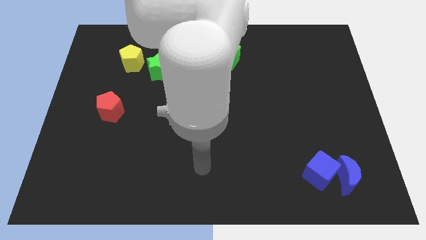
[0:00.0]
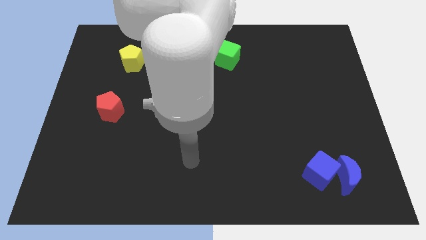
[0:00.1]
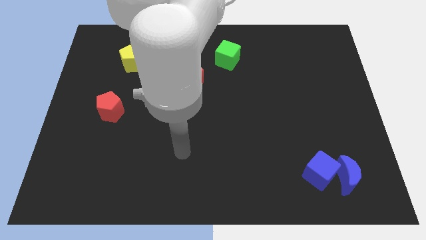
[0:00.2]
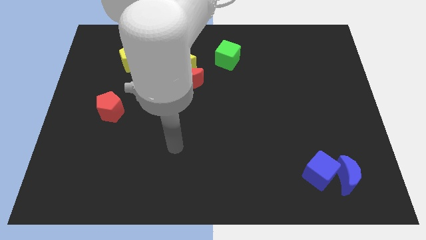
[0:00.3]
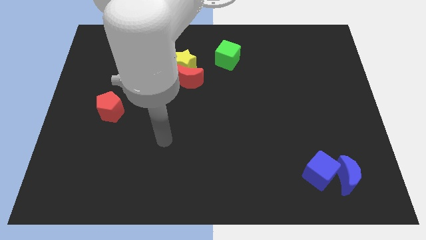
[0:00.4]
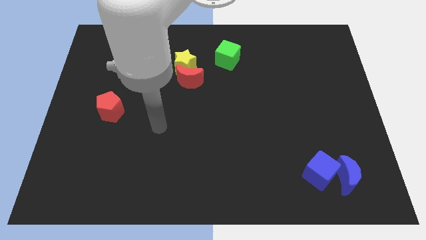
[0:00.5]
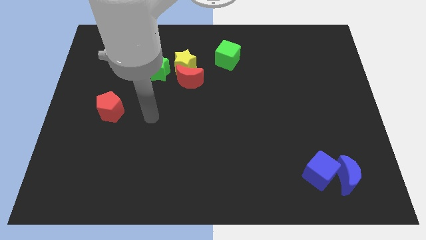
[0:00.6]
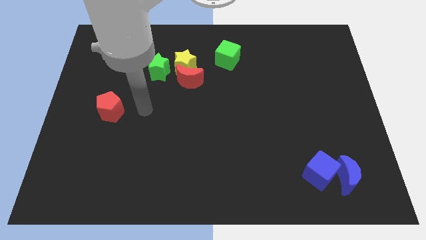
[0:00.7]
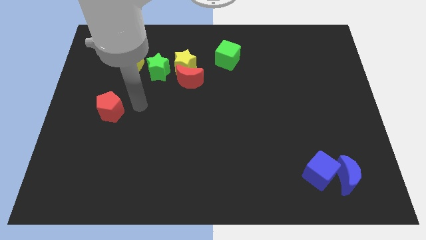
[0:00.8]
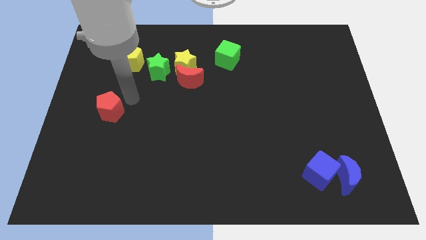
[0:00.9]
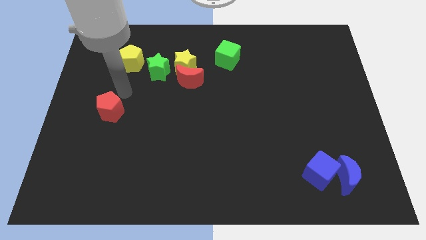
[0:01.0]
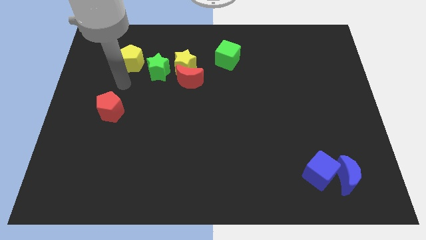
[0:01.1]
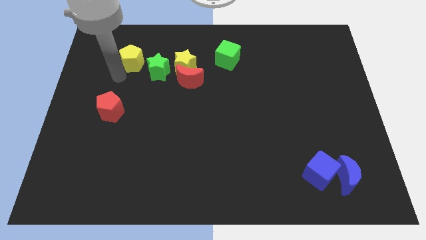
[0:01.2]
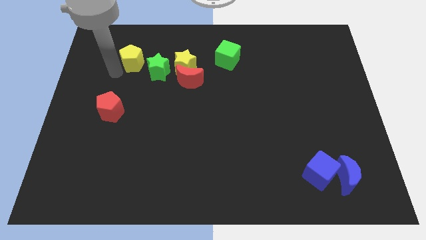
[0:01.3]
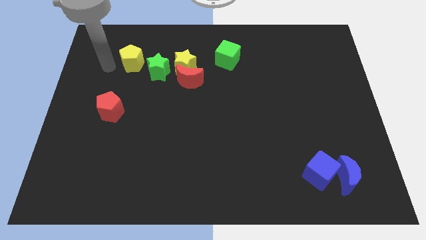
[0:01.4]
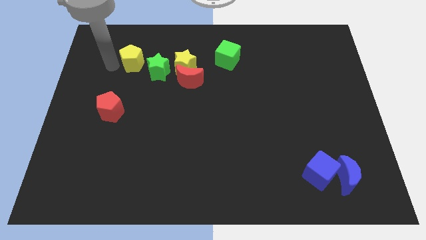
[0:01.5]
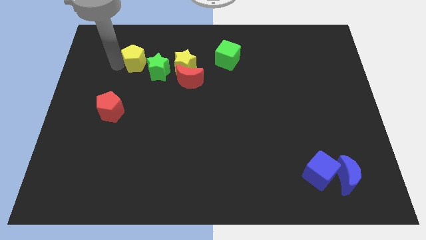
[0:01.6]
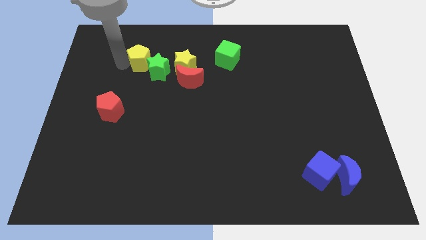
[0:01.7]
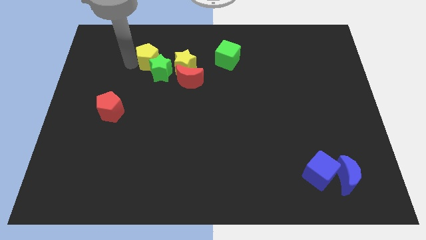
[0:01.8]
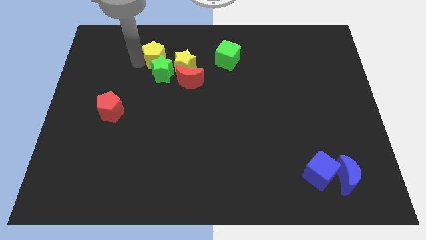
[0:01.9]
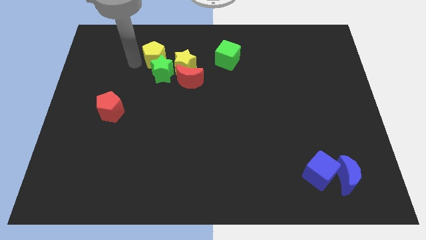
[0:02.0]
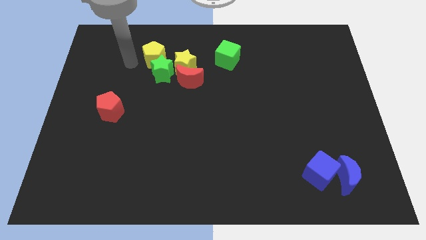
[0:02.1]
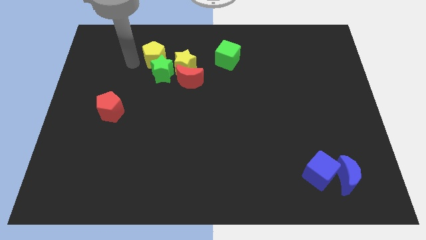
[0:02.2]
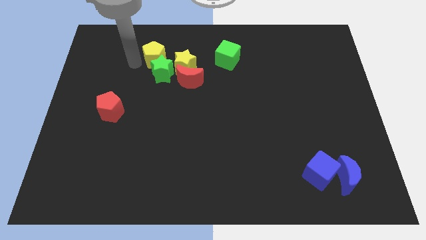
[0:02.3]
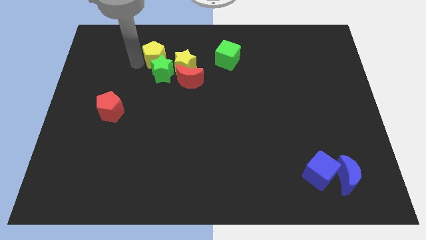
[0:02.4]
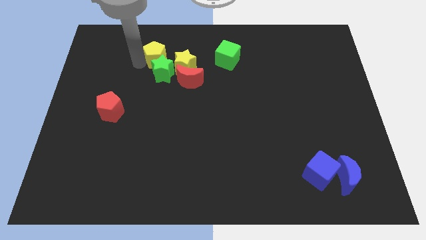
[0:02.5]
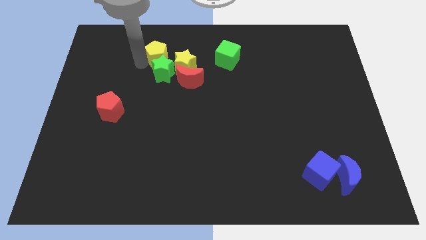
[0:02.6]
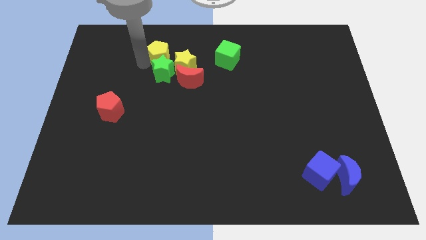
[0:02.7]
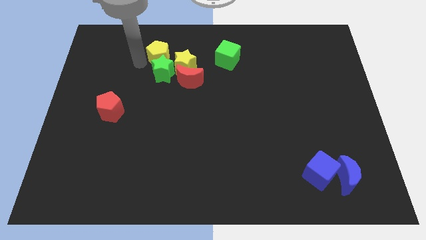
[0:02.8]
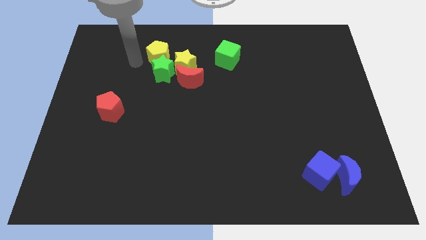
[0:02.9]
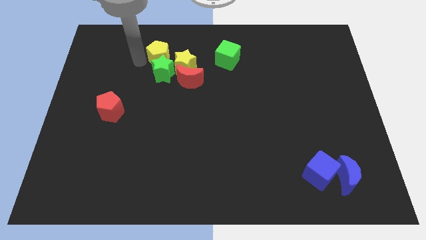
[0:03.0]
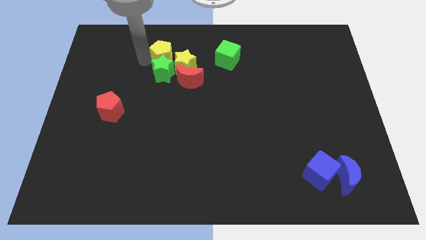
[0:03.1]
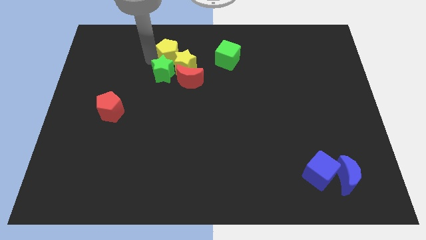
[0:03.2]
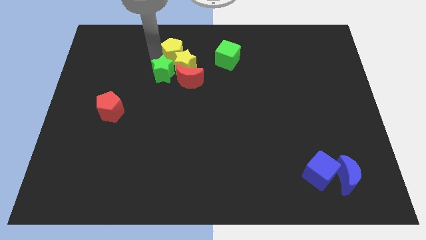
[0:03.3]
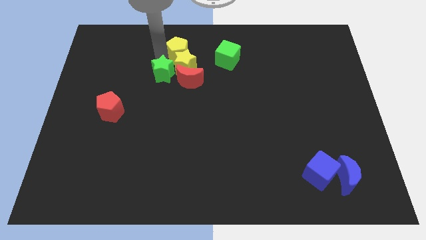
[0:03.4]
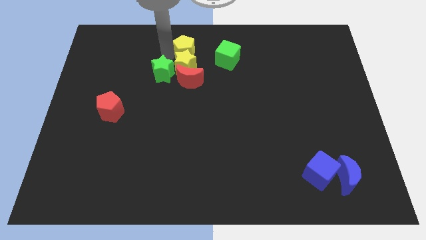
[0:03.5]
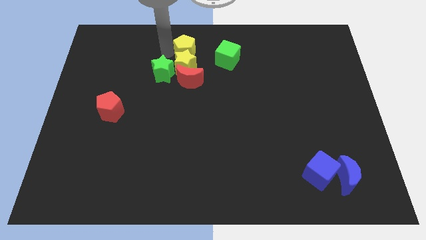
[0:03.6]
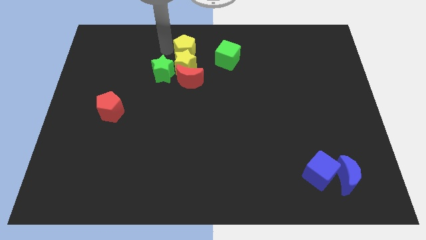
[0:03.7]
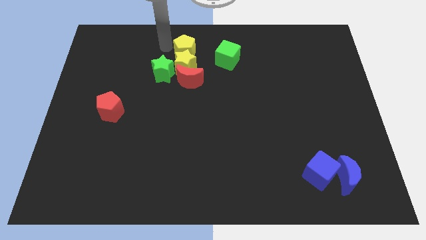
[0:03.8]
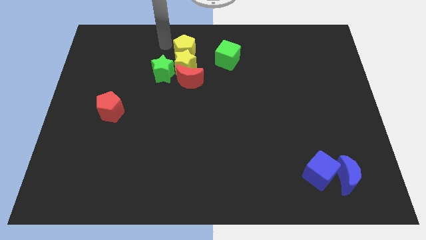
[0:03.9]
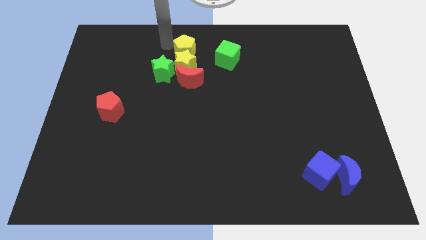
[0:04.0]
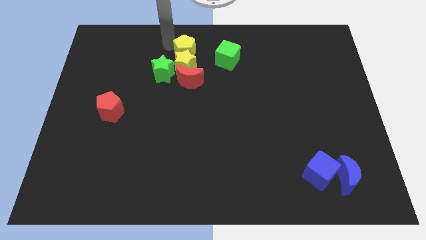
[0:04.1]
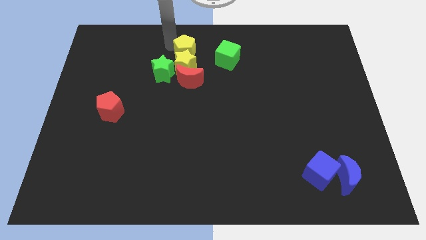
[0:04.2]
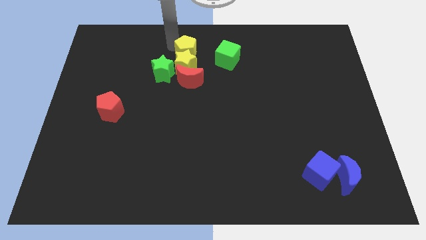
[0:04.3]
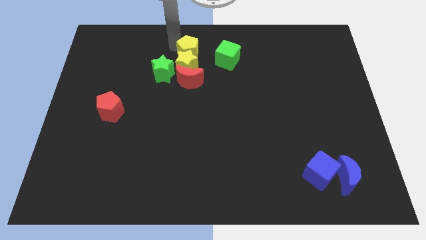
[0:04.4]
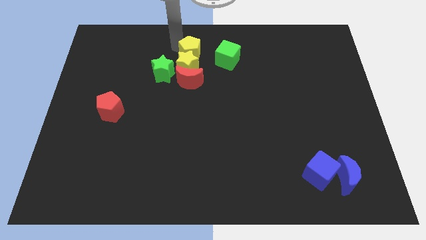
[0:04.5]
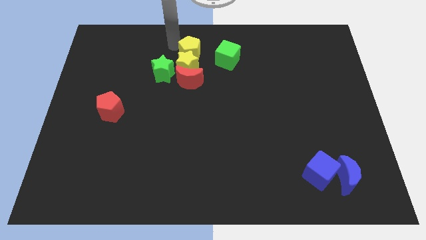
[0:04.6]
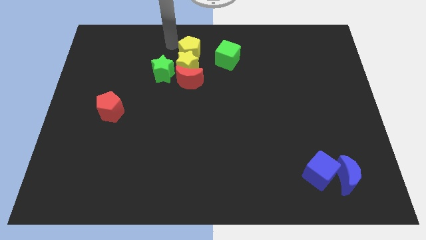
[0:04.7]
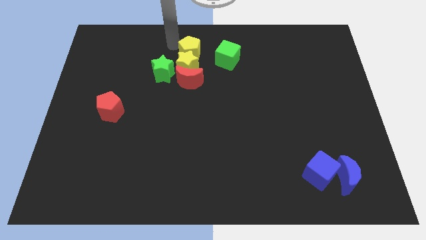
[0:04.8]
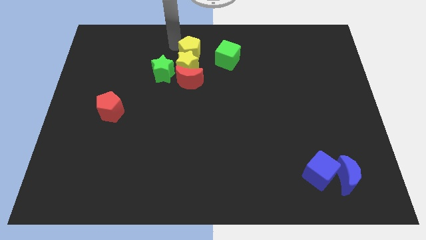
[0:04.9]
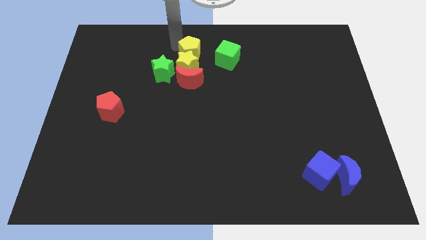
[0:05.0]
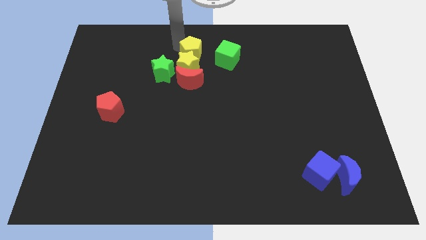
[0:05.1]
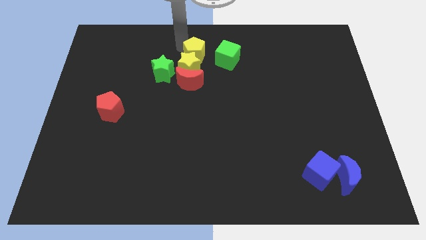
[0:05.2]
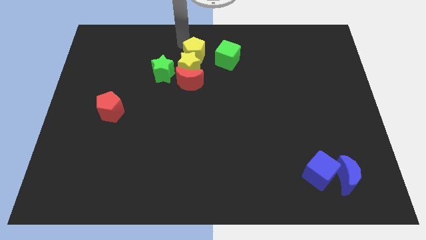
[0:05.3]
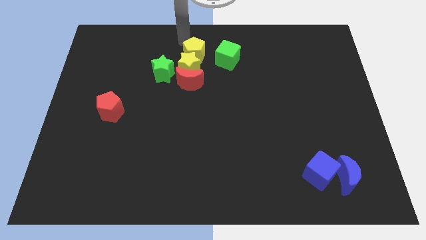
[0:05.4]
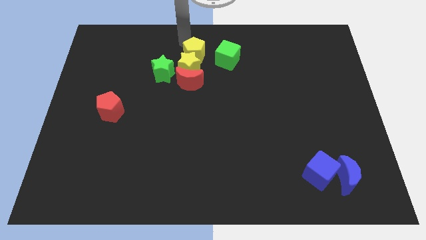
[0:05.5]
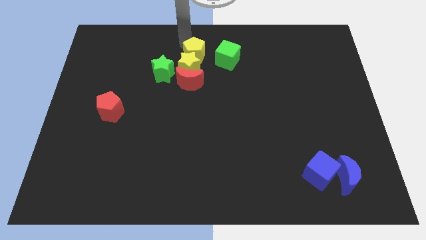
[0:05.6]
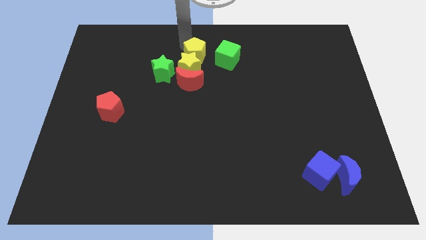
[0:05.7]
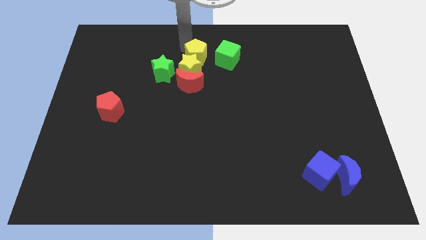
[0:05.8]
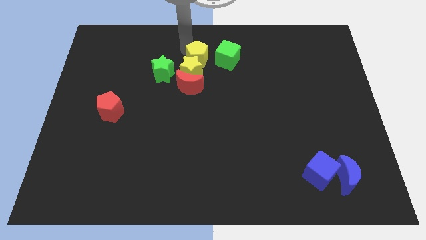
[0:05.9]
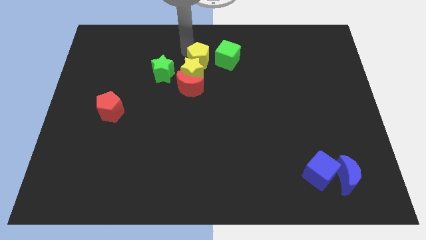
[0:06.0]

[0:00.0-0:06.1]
put the yellow pentagon diagonally down and to the left of the green cube

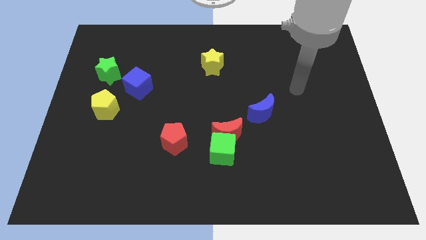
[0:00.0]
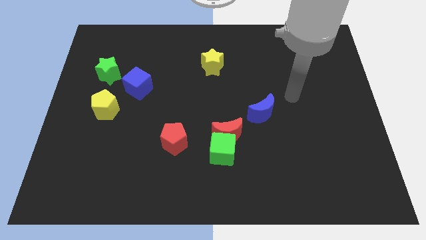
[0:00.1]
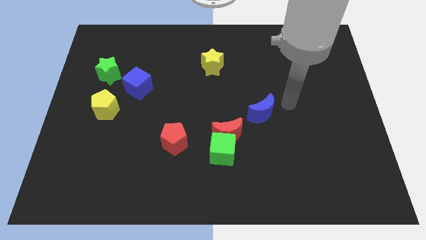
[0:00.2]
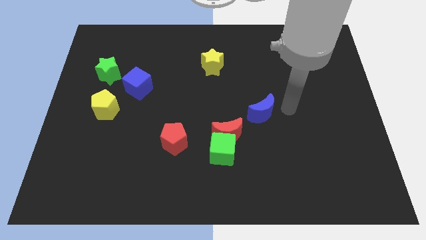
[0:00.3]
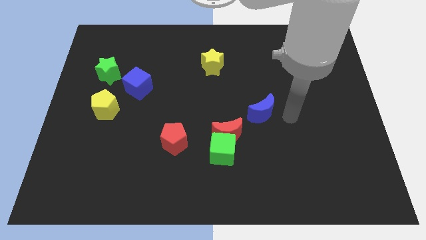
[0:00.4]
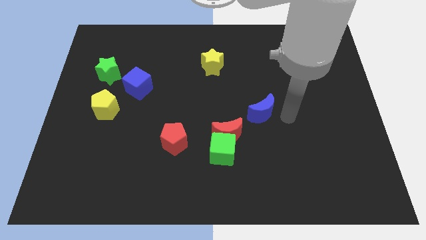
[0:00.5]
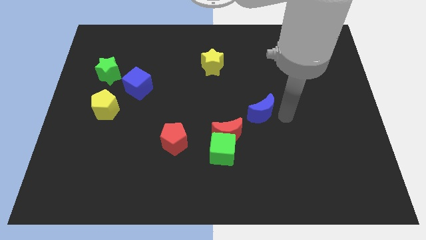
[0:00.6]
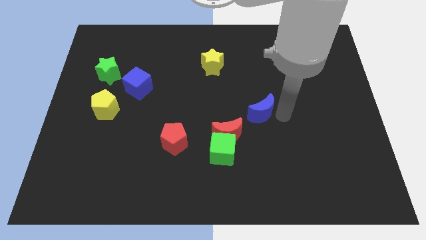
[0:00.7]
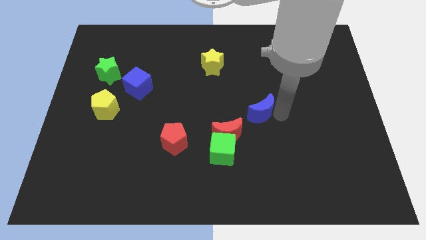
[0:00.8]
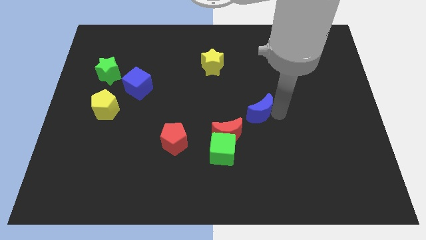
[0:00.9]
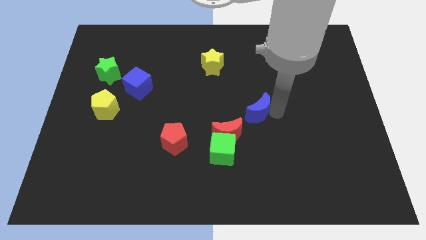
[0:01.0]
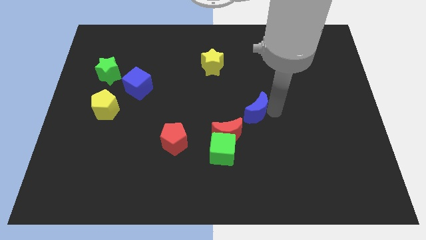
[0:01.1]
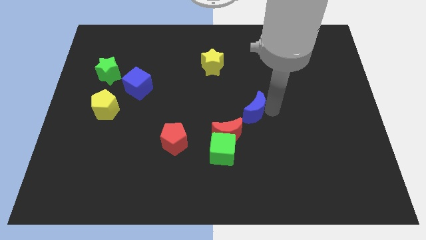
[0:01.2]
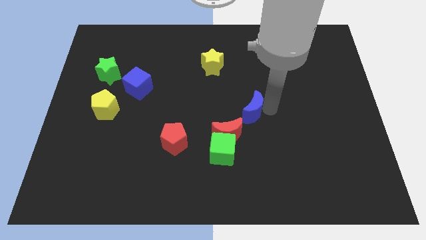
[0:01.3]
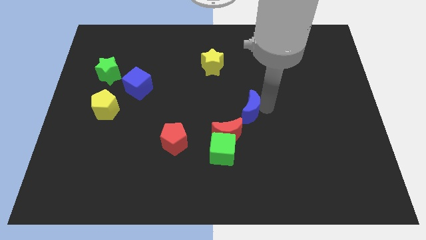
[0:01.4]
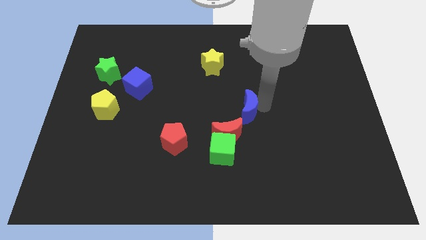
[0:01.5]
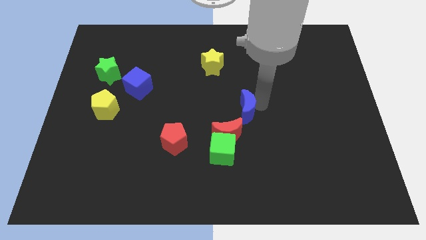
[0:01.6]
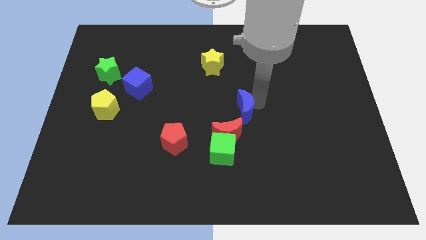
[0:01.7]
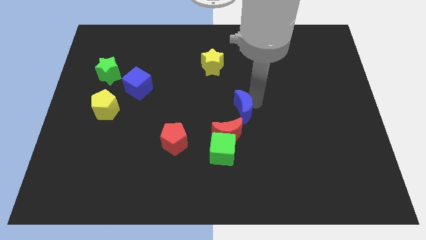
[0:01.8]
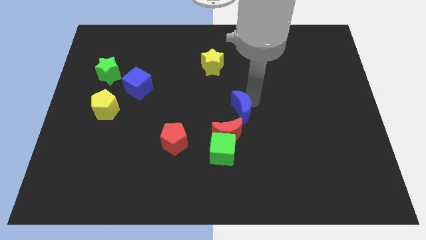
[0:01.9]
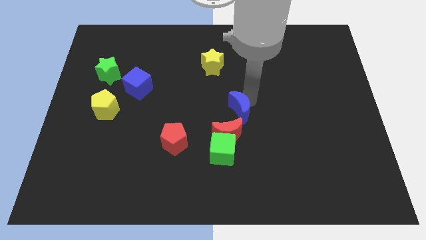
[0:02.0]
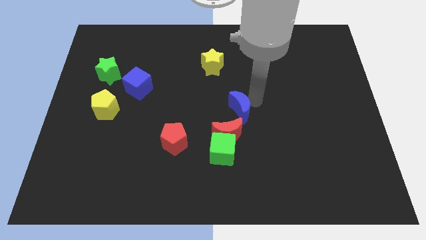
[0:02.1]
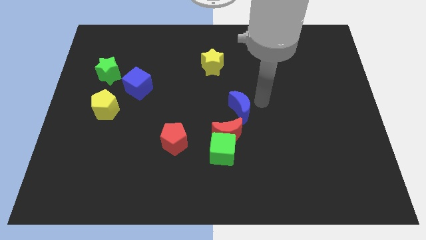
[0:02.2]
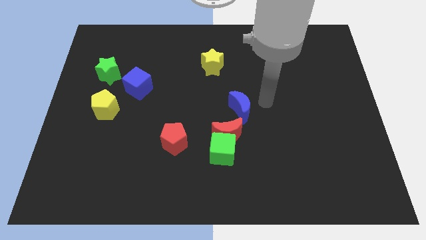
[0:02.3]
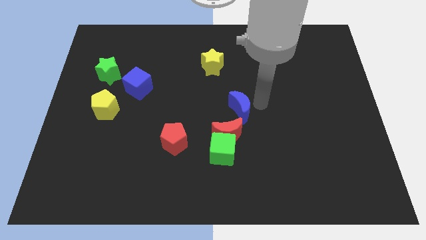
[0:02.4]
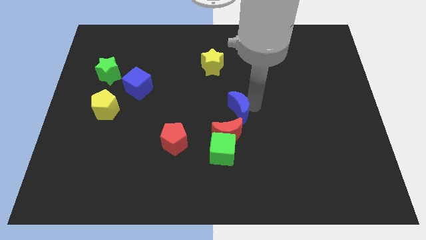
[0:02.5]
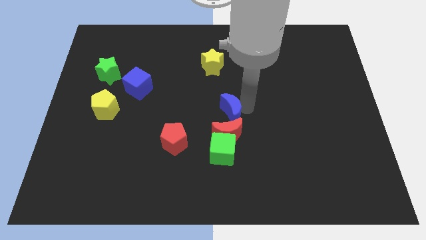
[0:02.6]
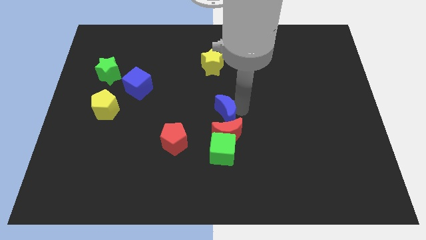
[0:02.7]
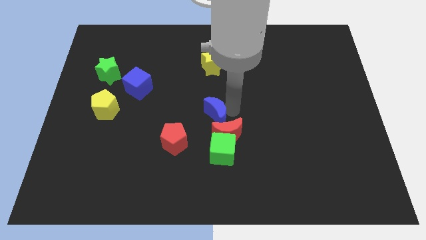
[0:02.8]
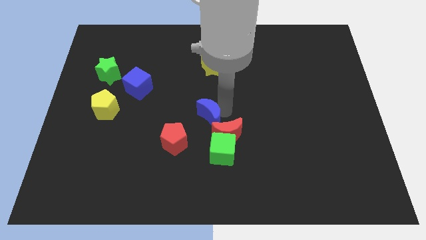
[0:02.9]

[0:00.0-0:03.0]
push the blue moon to the top left of the green cube
